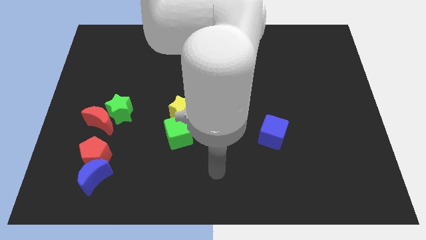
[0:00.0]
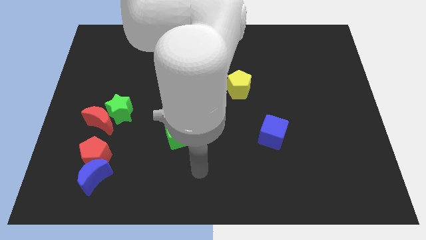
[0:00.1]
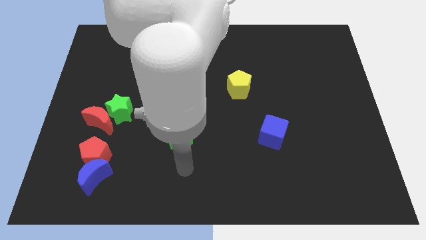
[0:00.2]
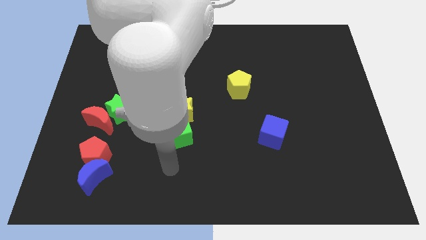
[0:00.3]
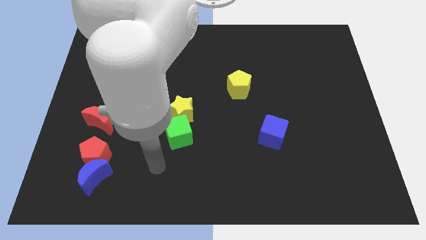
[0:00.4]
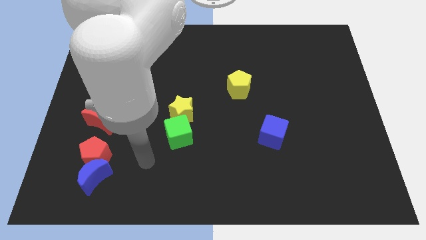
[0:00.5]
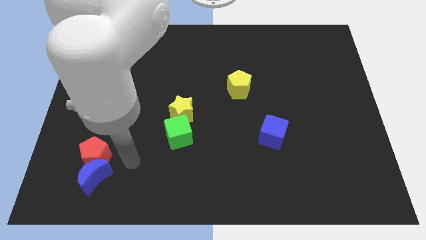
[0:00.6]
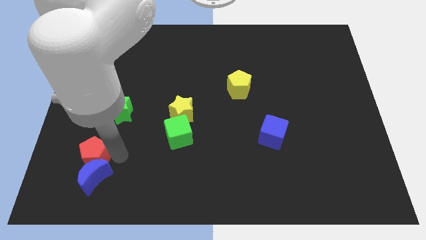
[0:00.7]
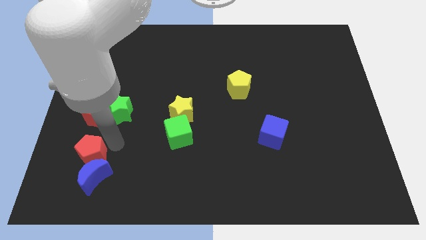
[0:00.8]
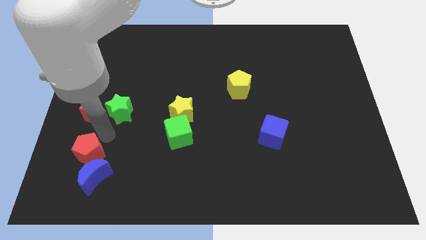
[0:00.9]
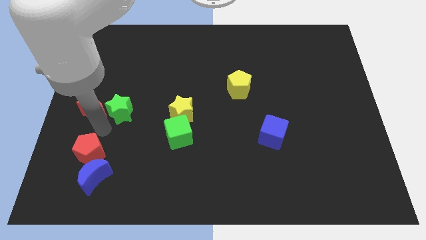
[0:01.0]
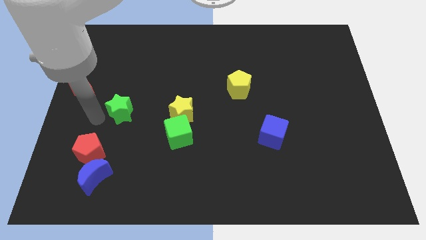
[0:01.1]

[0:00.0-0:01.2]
move the green star away from the red moon

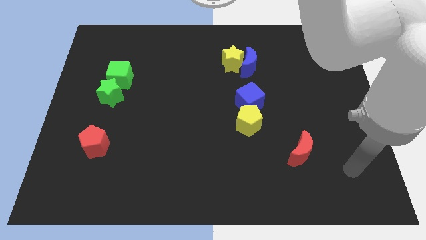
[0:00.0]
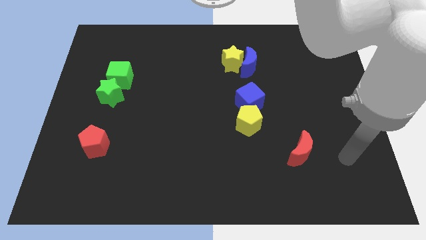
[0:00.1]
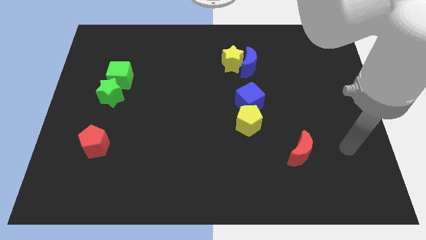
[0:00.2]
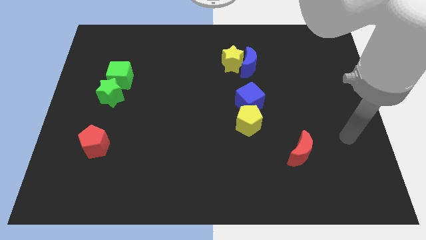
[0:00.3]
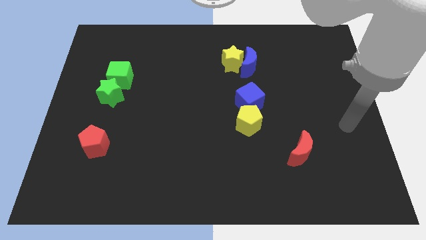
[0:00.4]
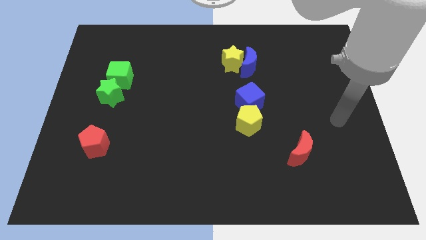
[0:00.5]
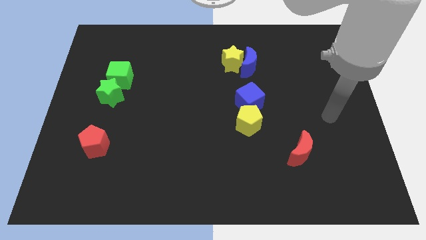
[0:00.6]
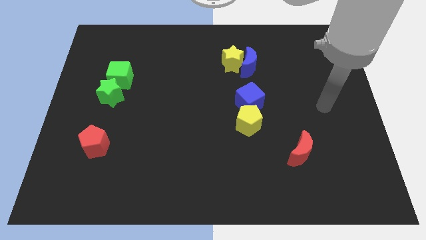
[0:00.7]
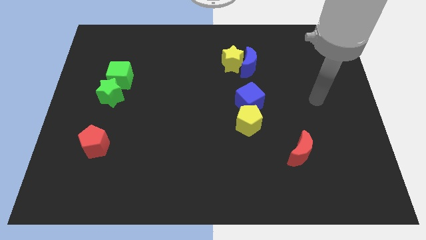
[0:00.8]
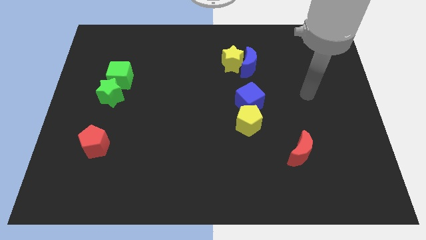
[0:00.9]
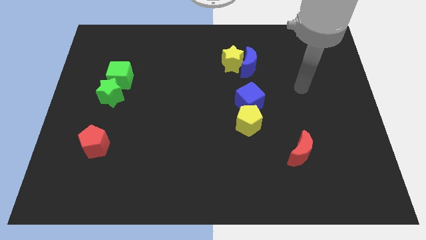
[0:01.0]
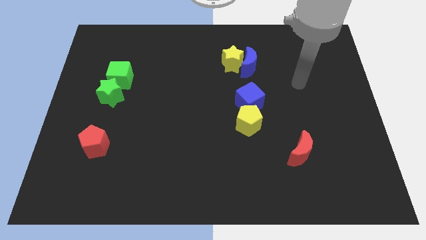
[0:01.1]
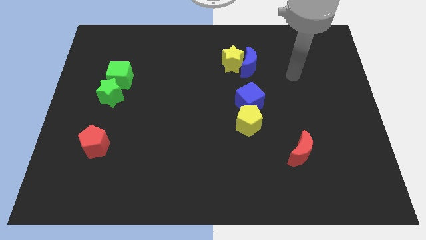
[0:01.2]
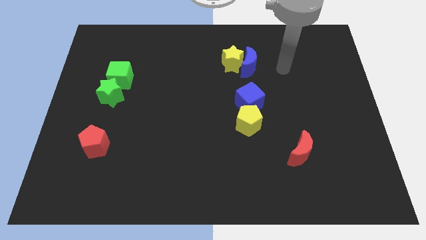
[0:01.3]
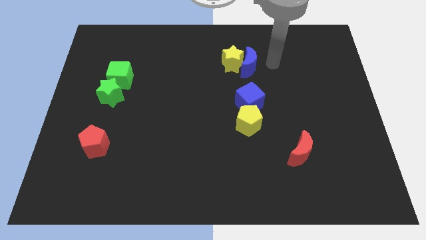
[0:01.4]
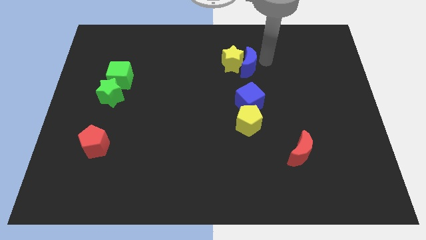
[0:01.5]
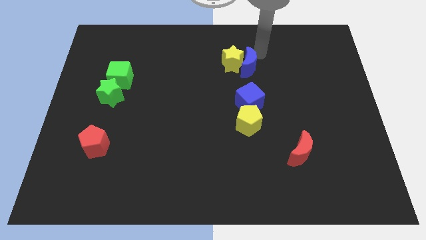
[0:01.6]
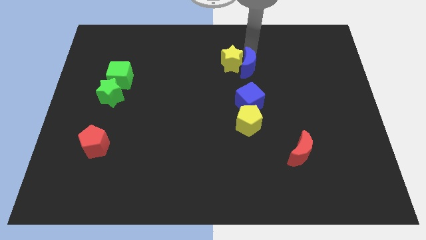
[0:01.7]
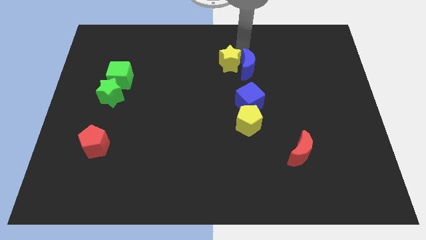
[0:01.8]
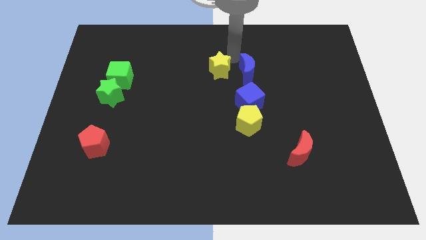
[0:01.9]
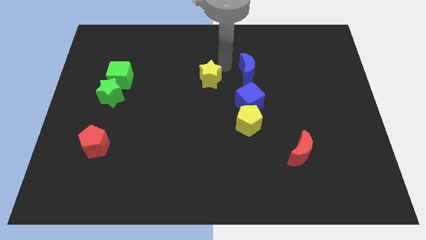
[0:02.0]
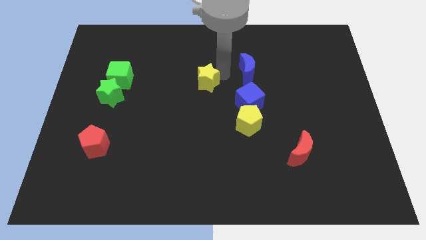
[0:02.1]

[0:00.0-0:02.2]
separate the blue moon from the yellow star

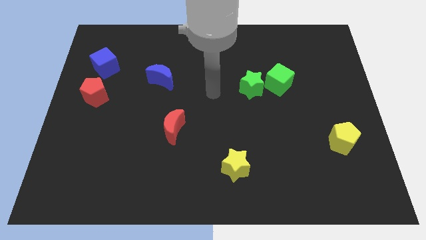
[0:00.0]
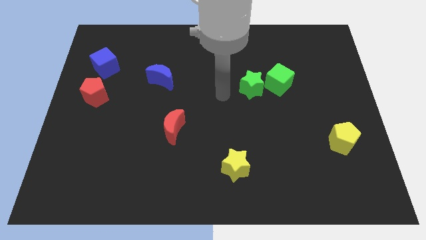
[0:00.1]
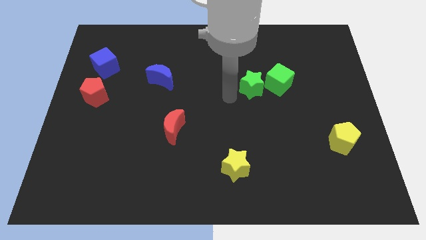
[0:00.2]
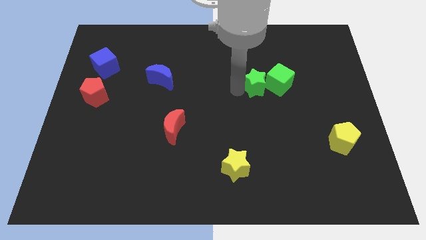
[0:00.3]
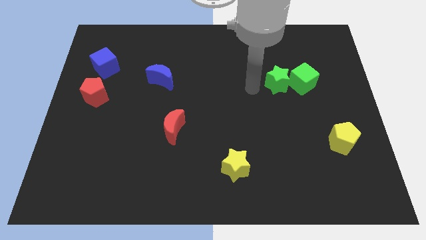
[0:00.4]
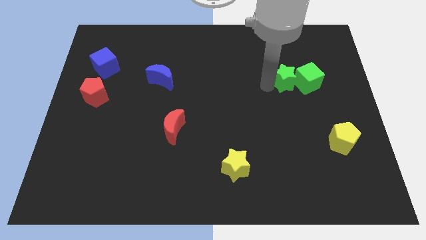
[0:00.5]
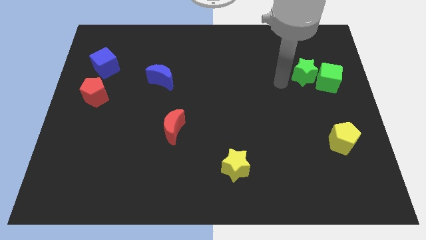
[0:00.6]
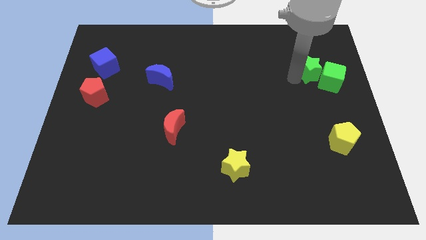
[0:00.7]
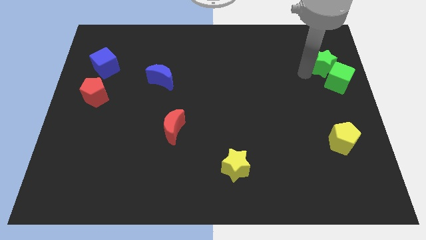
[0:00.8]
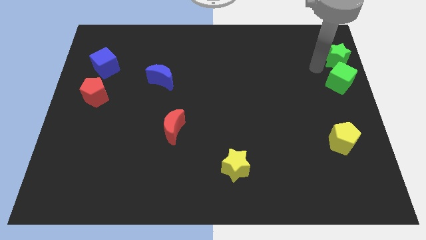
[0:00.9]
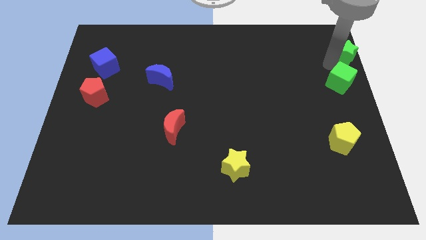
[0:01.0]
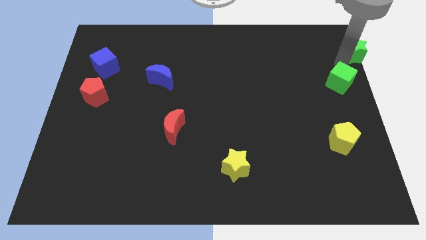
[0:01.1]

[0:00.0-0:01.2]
pull the green cube apart from the green star

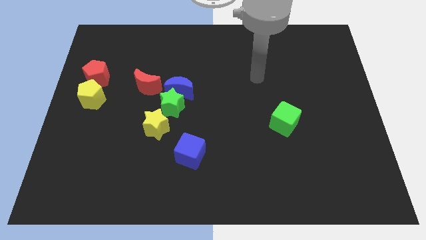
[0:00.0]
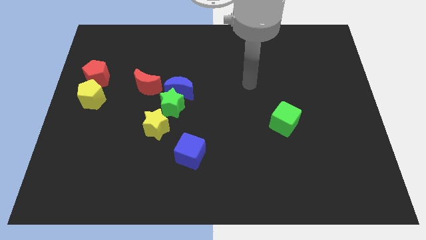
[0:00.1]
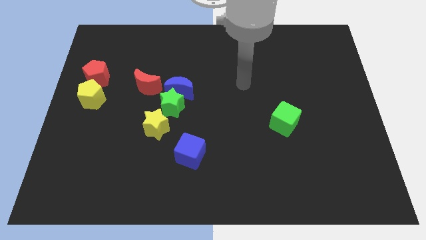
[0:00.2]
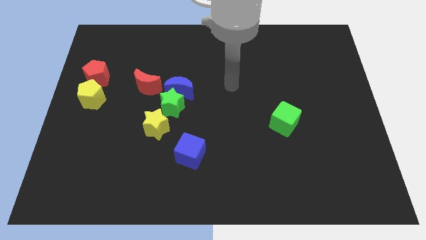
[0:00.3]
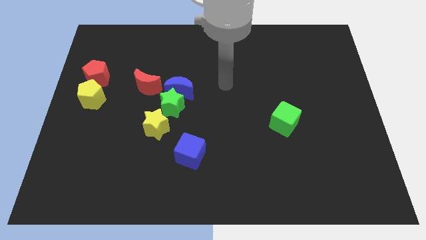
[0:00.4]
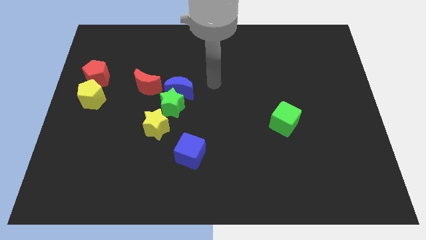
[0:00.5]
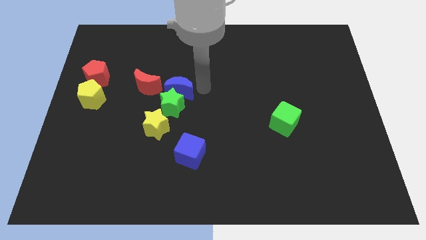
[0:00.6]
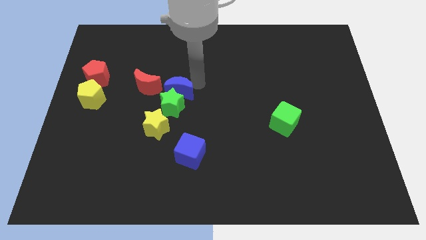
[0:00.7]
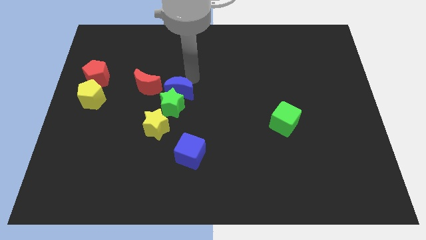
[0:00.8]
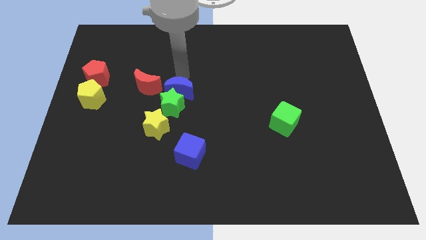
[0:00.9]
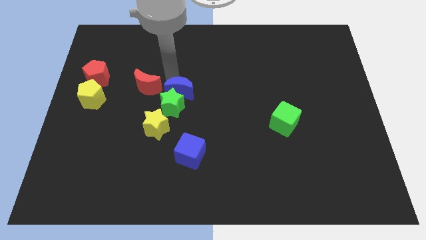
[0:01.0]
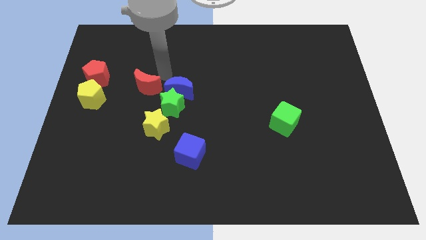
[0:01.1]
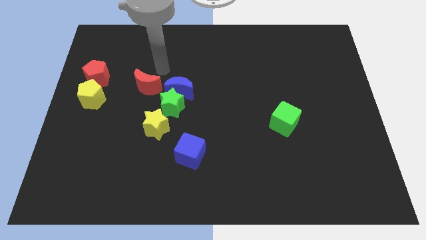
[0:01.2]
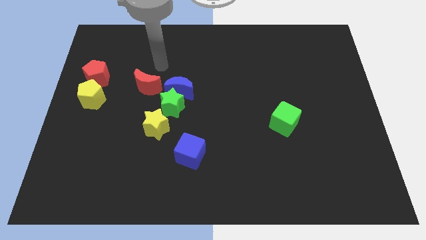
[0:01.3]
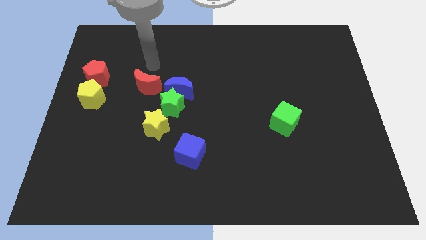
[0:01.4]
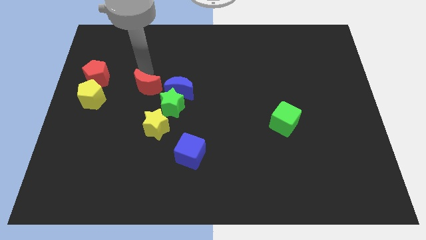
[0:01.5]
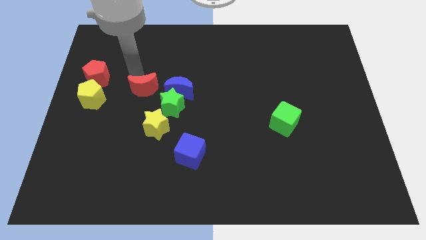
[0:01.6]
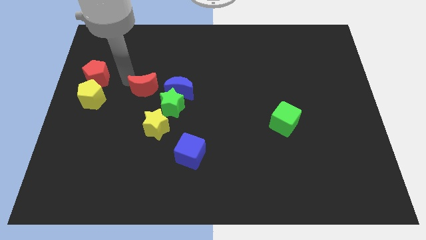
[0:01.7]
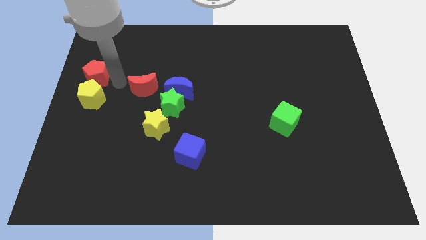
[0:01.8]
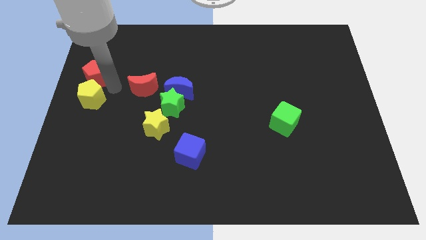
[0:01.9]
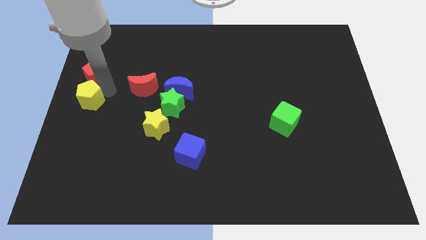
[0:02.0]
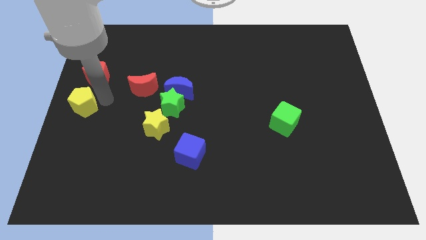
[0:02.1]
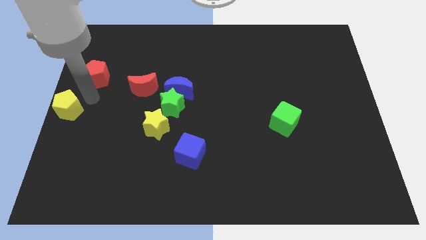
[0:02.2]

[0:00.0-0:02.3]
move the red pentagon away from the yellow pentagon

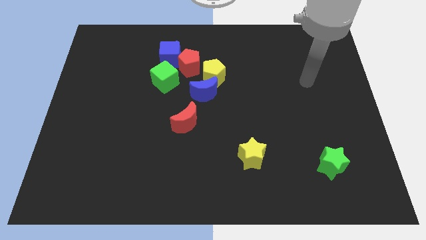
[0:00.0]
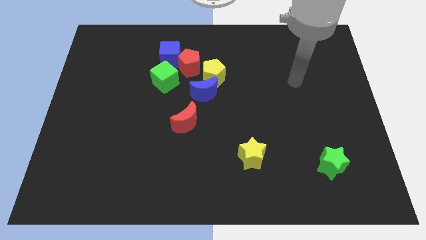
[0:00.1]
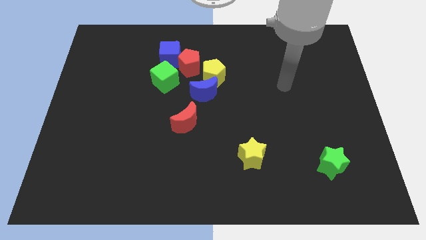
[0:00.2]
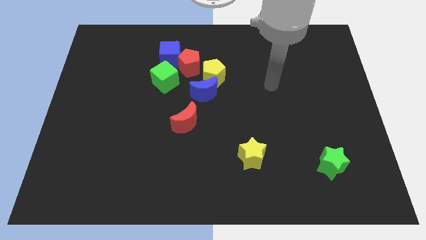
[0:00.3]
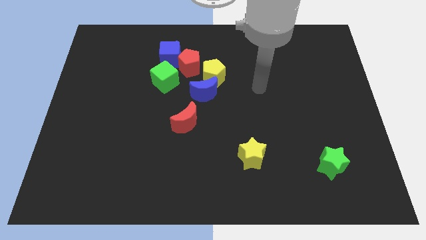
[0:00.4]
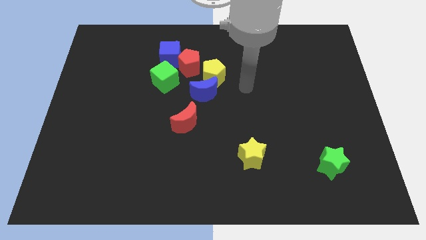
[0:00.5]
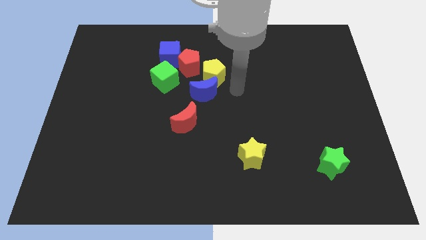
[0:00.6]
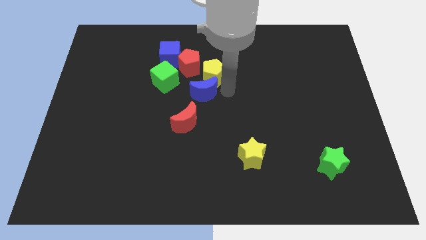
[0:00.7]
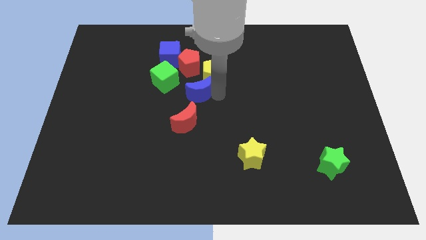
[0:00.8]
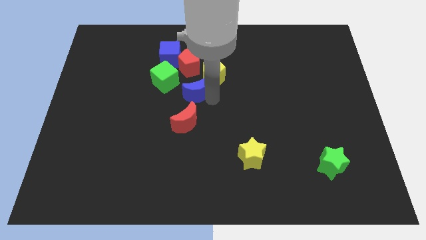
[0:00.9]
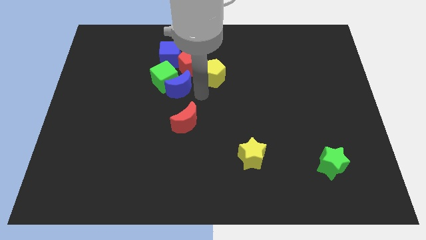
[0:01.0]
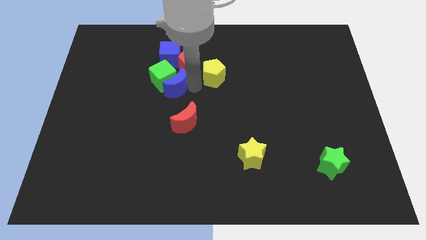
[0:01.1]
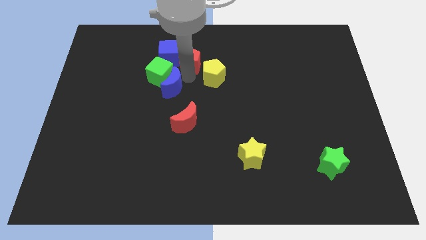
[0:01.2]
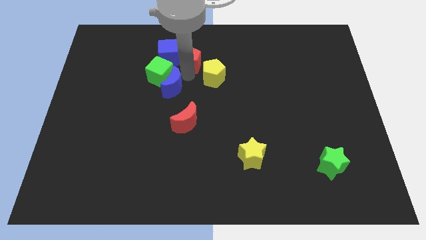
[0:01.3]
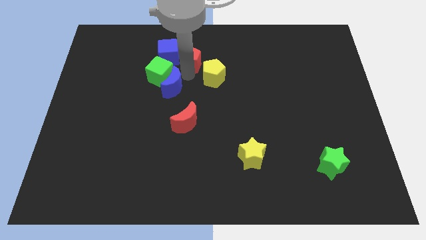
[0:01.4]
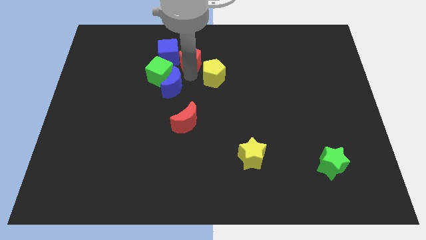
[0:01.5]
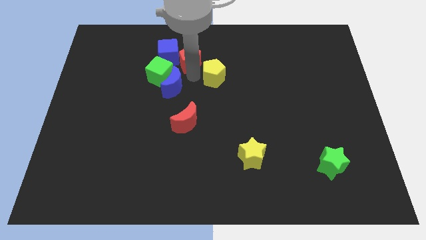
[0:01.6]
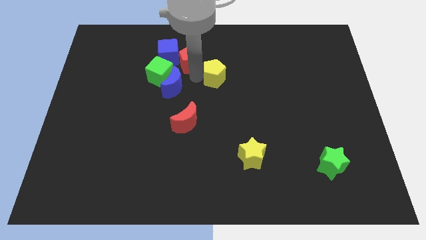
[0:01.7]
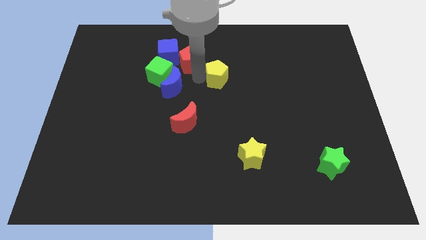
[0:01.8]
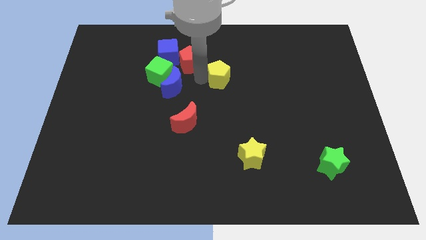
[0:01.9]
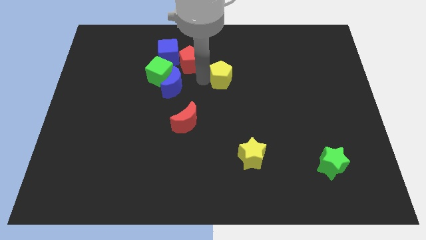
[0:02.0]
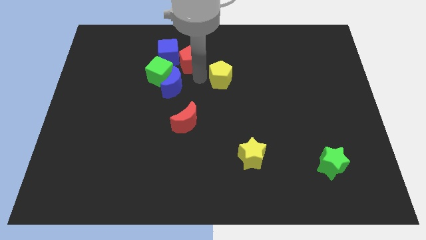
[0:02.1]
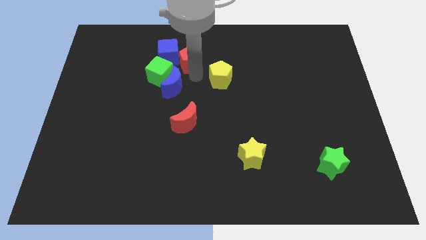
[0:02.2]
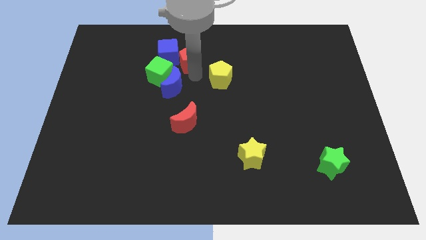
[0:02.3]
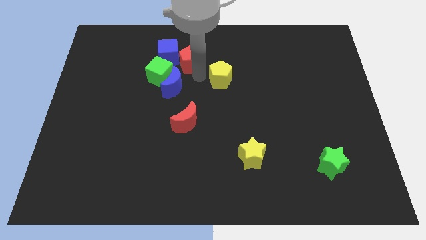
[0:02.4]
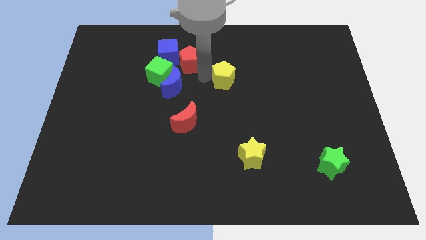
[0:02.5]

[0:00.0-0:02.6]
separate the yellow pentagon from the blue moon and red pentagon
